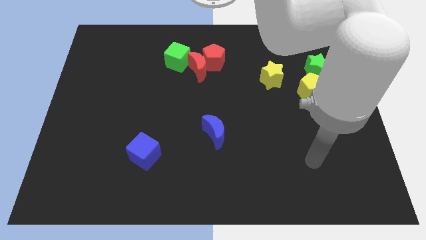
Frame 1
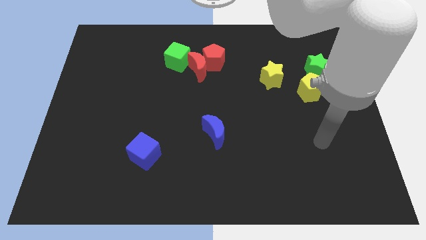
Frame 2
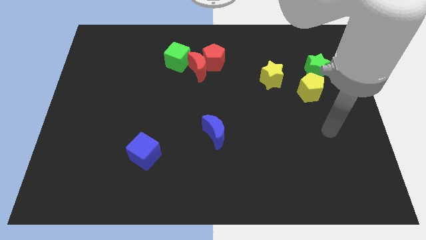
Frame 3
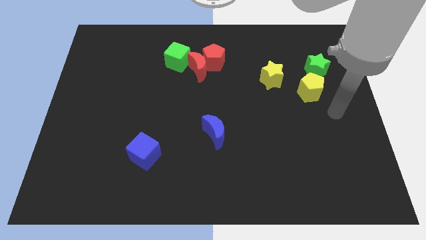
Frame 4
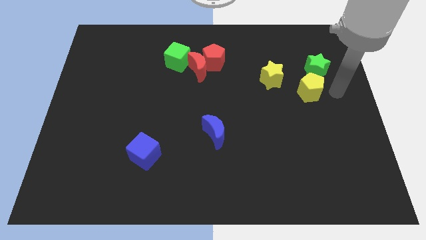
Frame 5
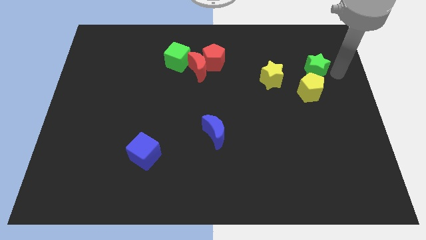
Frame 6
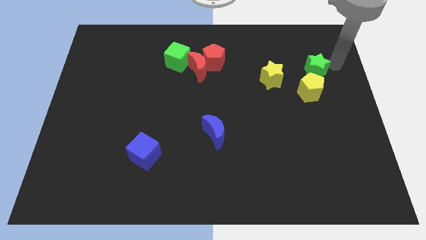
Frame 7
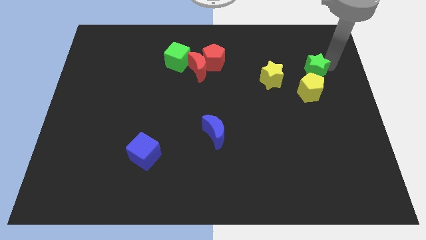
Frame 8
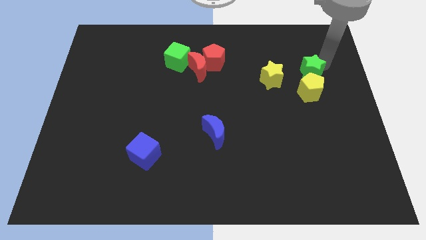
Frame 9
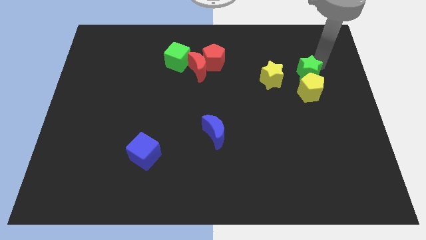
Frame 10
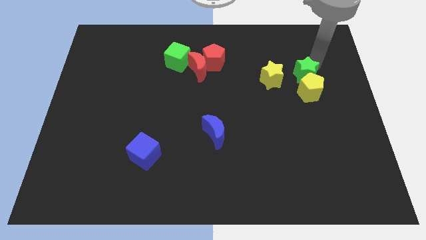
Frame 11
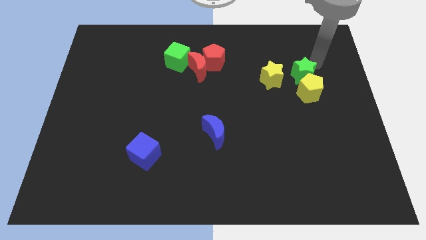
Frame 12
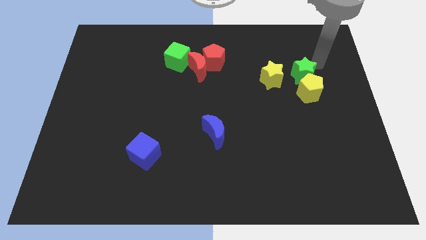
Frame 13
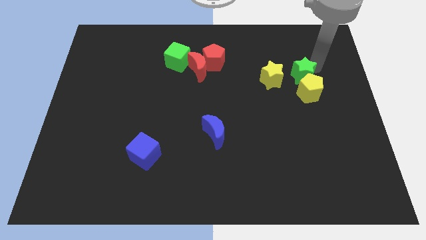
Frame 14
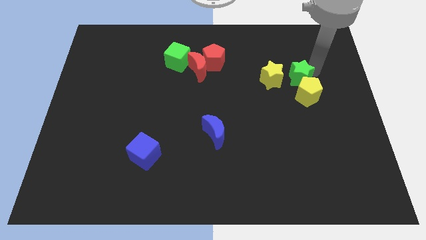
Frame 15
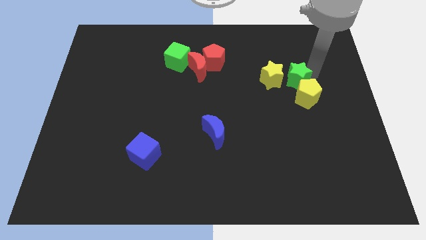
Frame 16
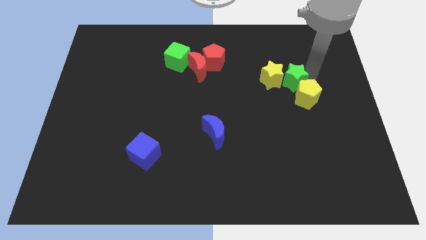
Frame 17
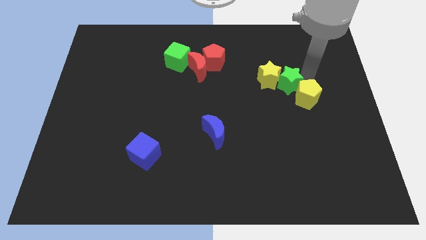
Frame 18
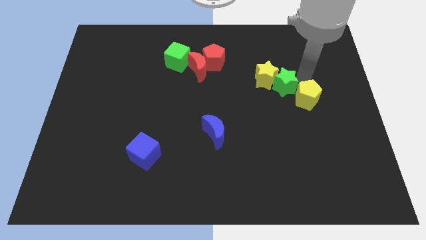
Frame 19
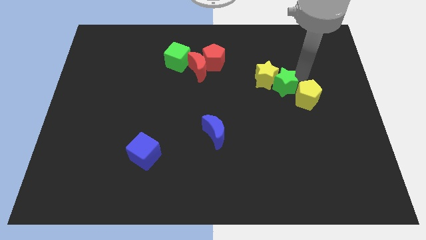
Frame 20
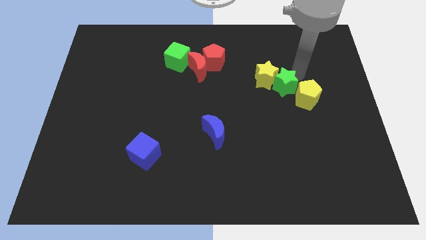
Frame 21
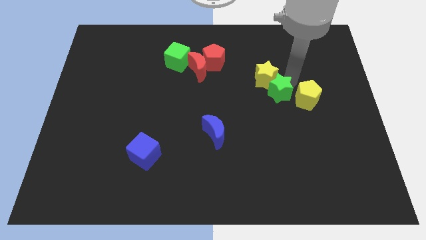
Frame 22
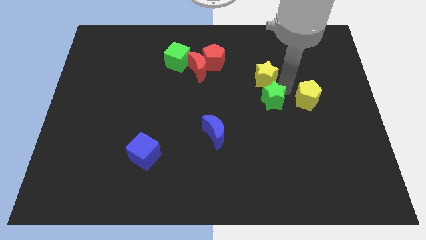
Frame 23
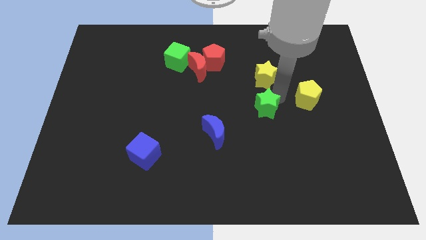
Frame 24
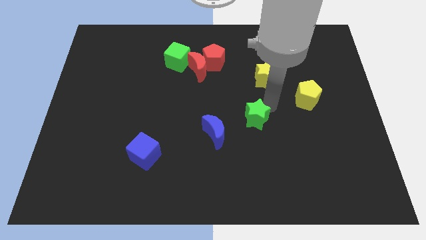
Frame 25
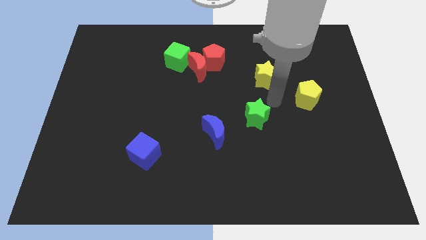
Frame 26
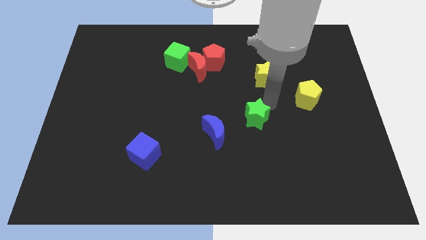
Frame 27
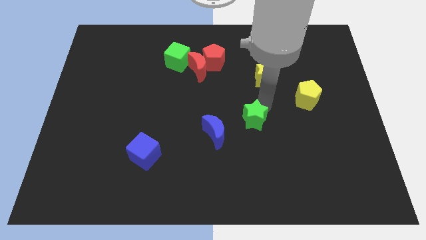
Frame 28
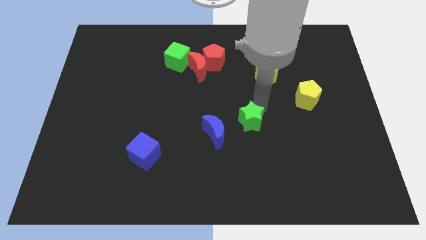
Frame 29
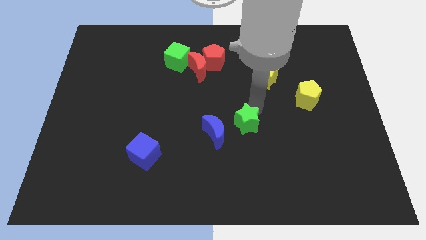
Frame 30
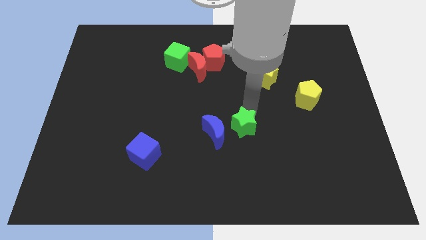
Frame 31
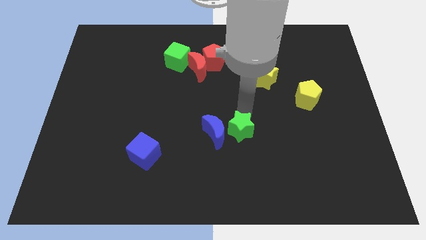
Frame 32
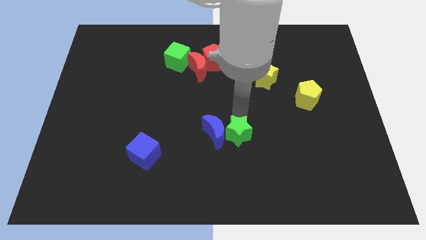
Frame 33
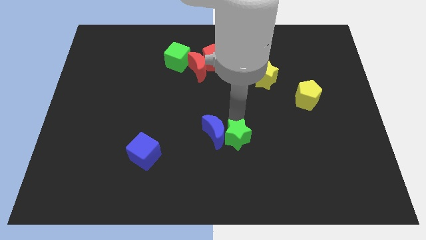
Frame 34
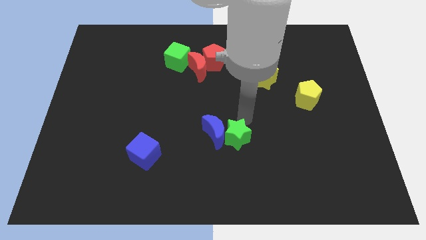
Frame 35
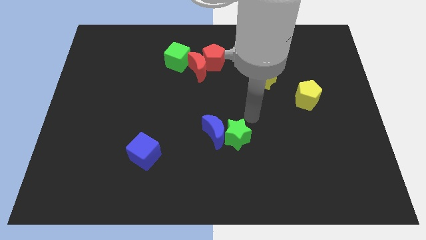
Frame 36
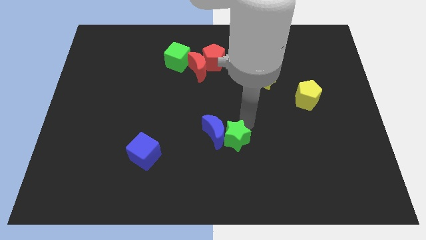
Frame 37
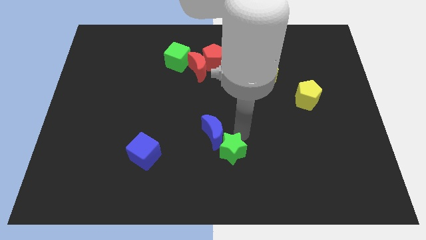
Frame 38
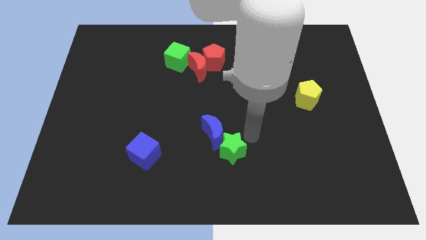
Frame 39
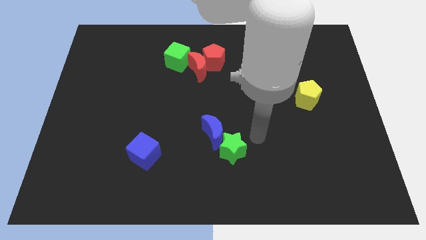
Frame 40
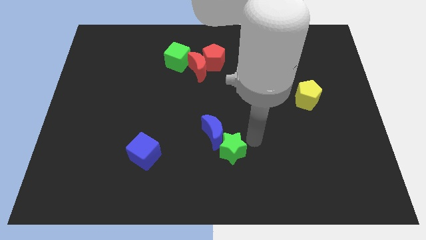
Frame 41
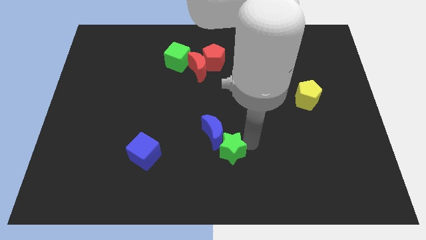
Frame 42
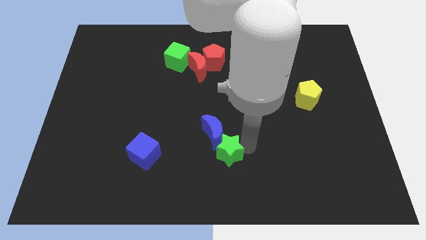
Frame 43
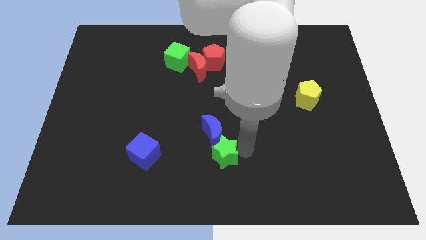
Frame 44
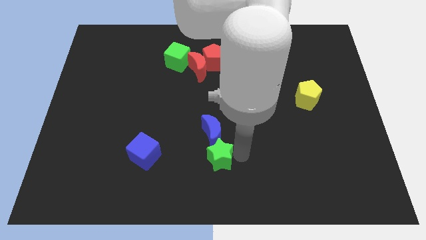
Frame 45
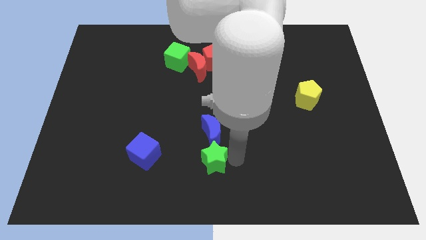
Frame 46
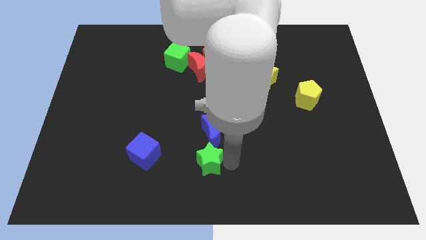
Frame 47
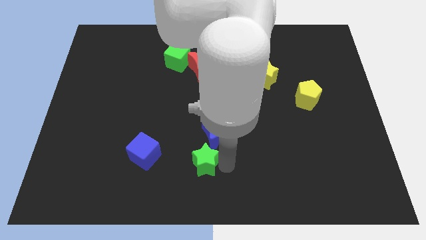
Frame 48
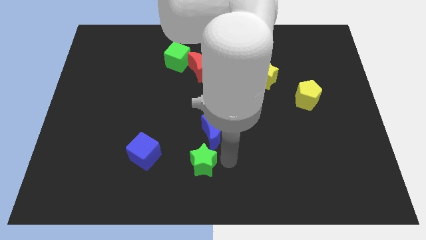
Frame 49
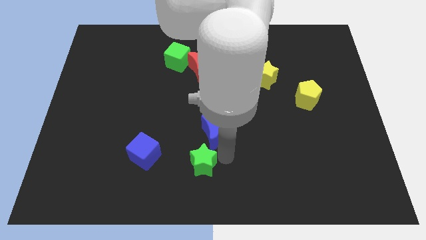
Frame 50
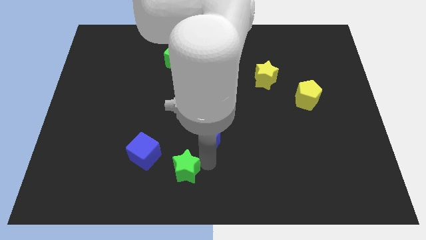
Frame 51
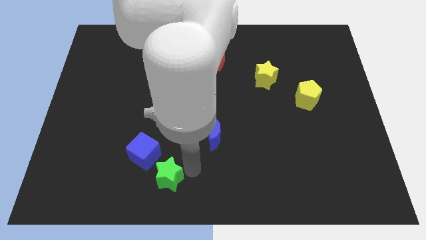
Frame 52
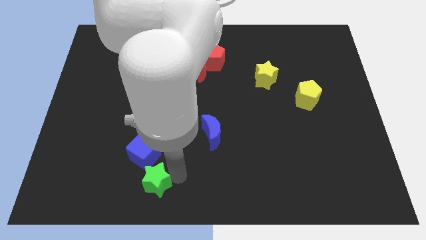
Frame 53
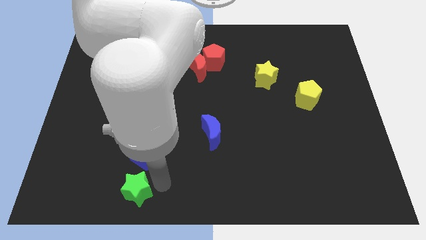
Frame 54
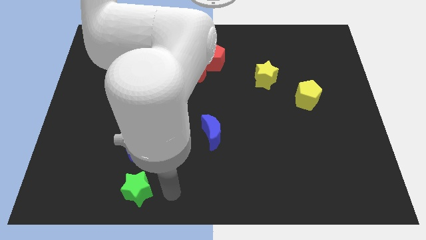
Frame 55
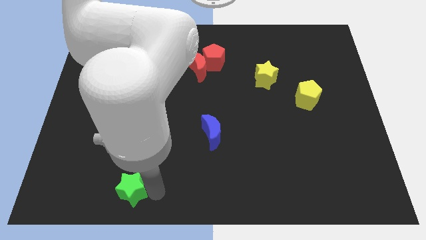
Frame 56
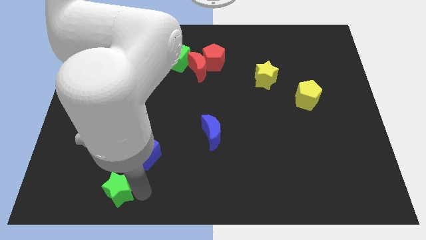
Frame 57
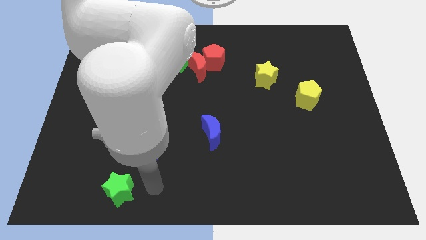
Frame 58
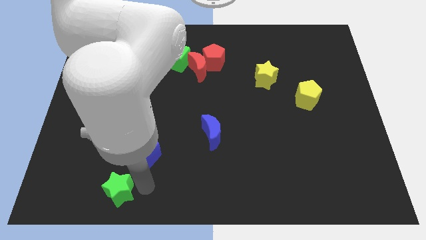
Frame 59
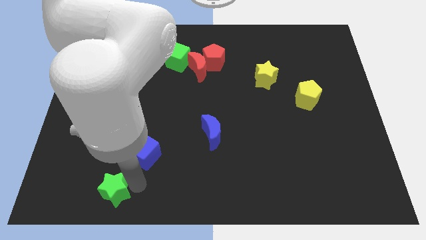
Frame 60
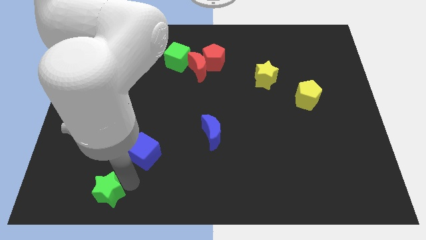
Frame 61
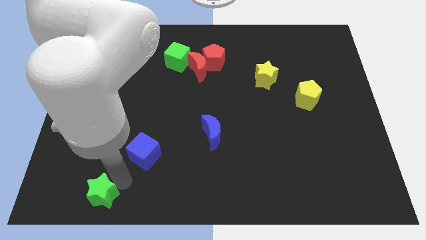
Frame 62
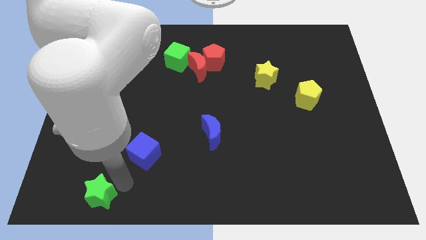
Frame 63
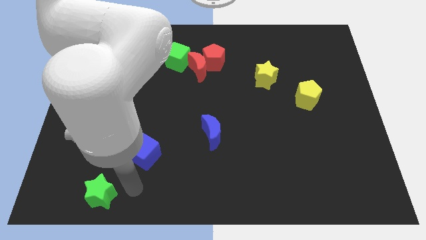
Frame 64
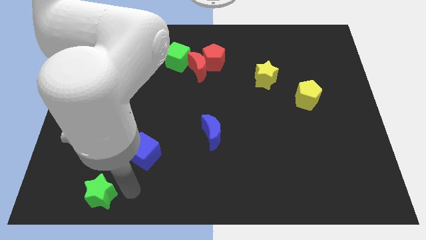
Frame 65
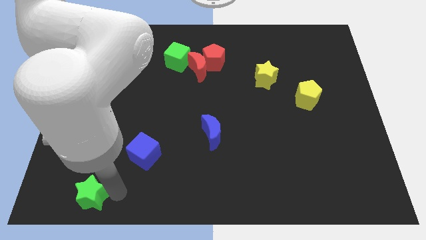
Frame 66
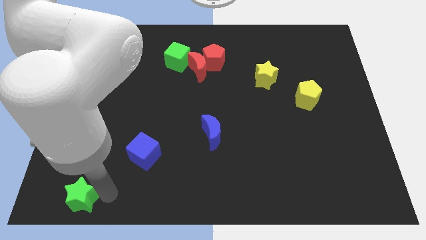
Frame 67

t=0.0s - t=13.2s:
slide the green star to the bottom left of the board

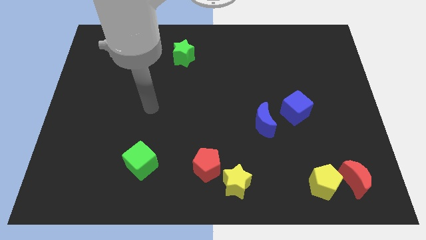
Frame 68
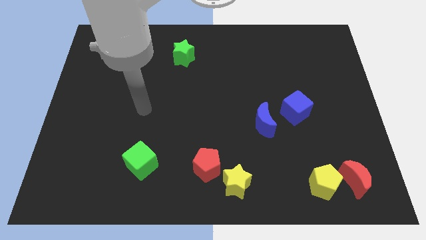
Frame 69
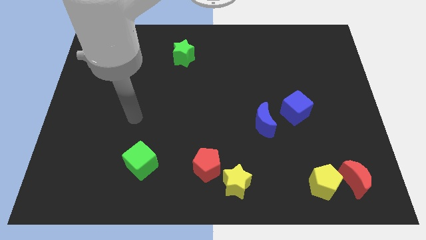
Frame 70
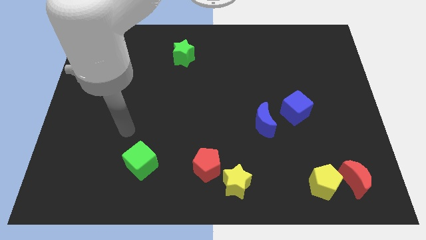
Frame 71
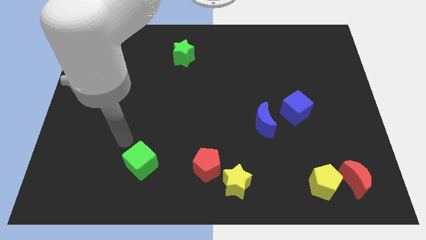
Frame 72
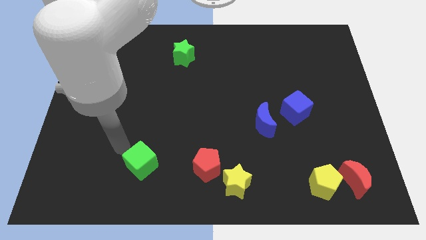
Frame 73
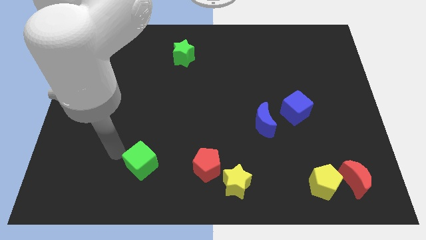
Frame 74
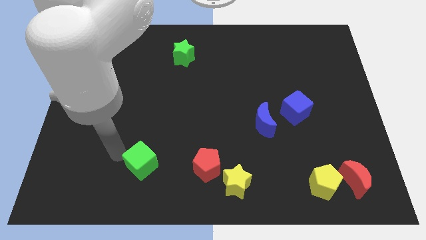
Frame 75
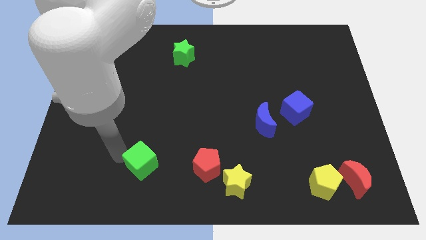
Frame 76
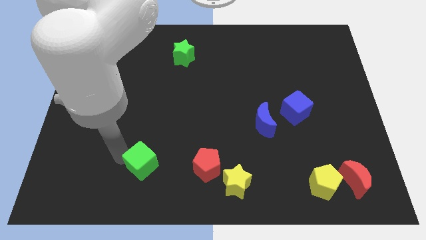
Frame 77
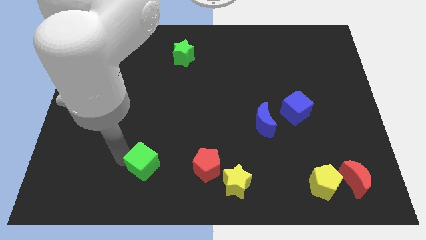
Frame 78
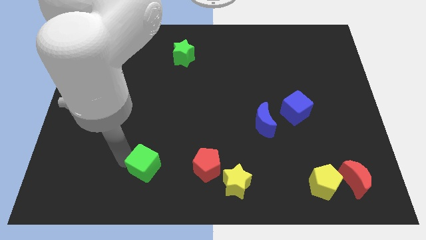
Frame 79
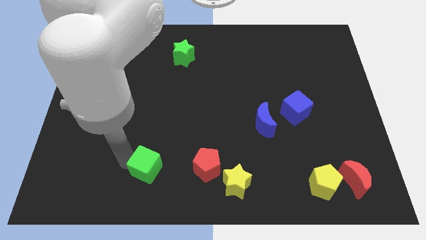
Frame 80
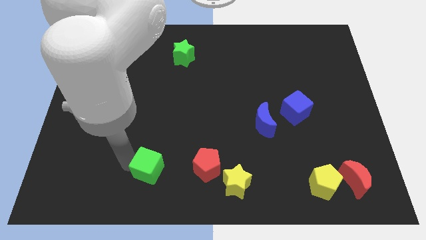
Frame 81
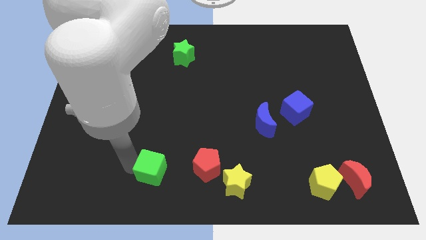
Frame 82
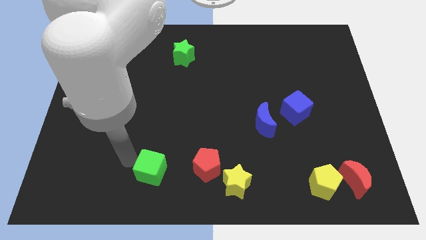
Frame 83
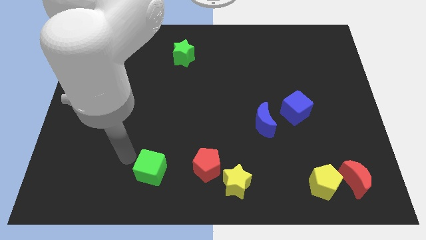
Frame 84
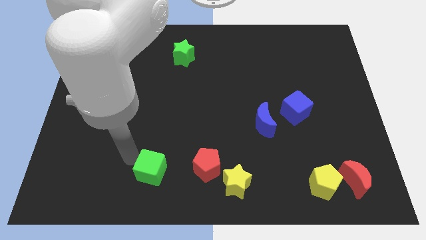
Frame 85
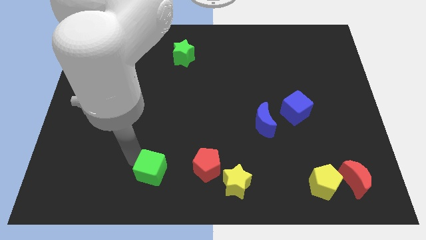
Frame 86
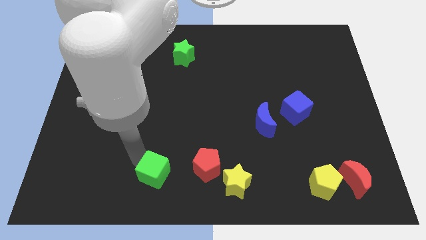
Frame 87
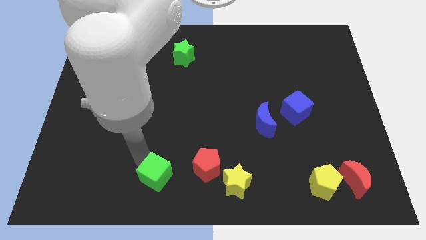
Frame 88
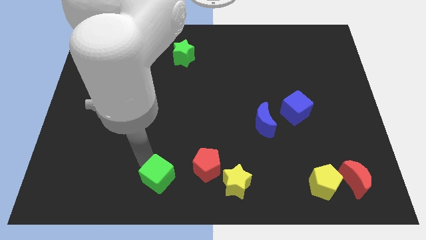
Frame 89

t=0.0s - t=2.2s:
move the green cube to the bottom side
